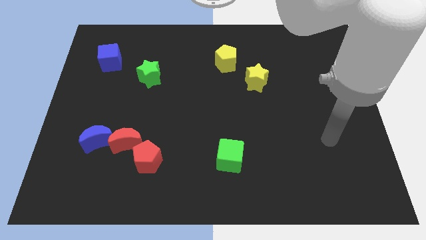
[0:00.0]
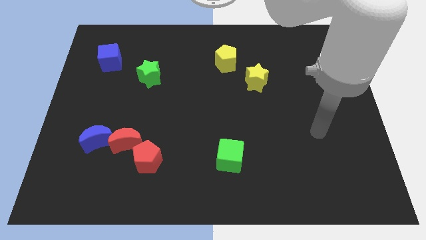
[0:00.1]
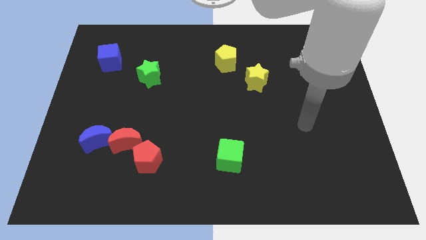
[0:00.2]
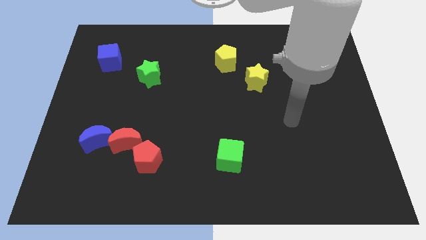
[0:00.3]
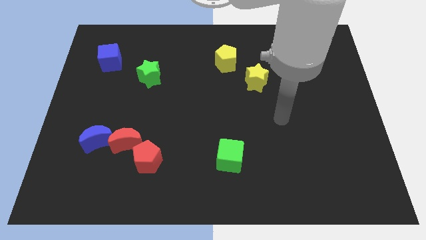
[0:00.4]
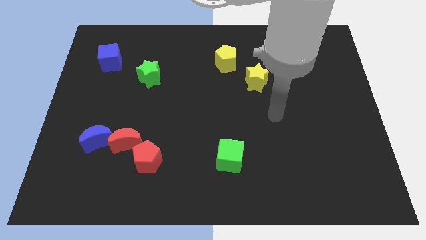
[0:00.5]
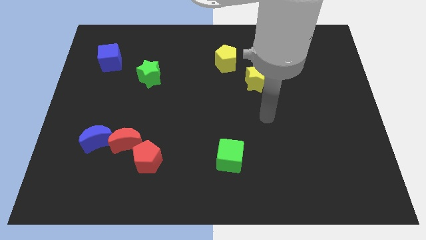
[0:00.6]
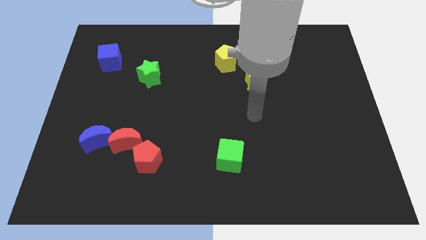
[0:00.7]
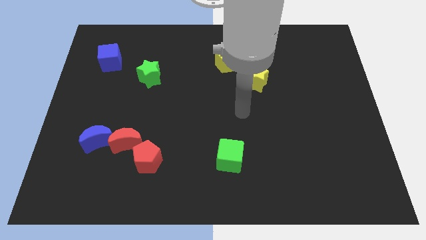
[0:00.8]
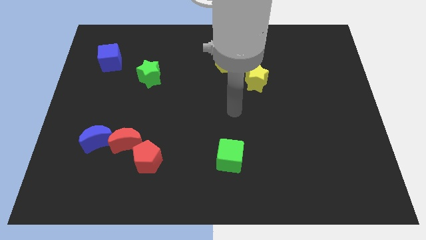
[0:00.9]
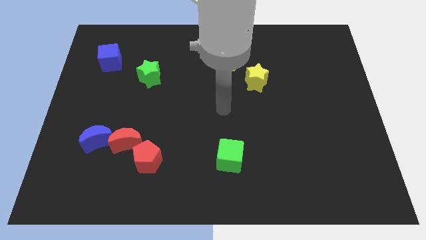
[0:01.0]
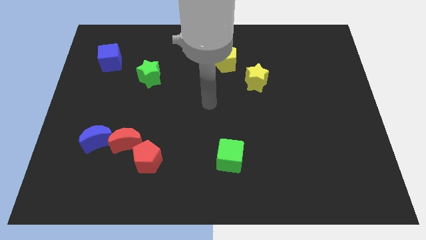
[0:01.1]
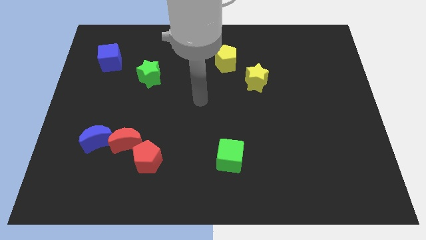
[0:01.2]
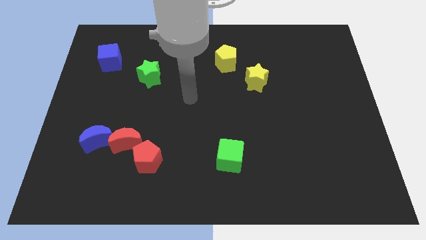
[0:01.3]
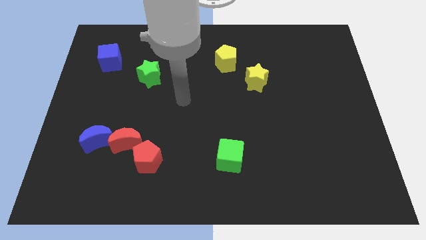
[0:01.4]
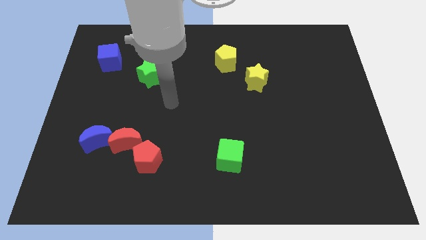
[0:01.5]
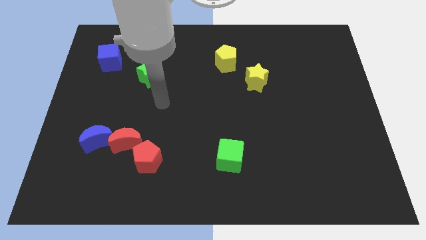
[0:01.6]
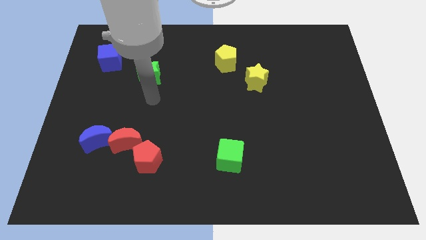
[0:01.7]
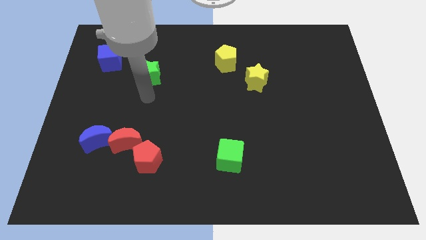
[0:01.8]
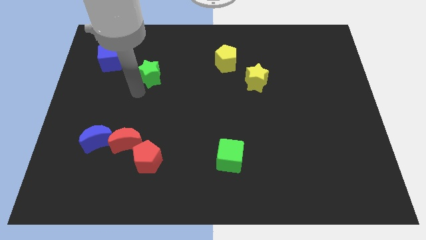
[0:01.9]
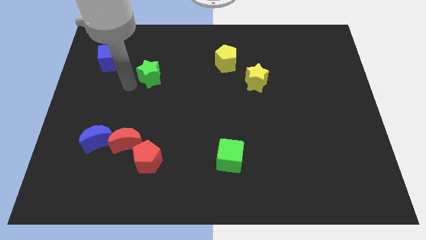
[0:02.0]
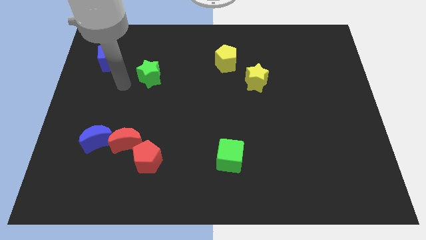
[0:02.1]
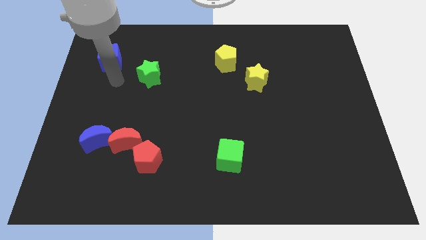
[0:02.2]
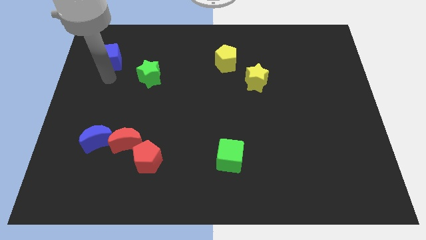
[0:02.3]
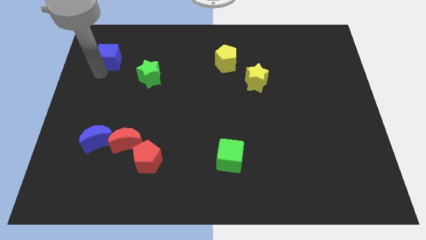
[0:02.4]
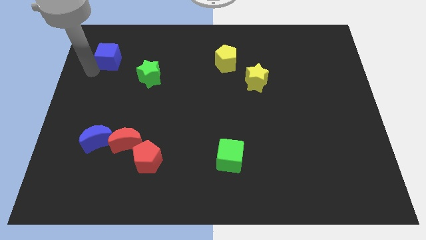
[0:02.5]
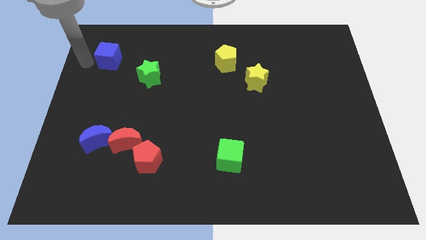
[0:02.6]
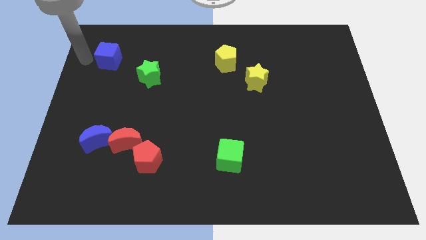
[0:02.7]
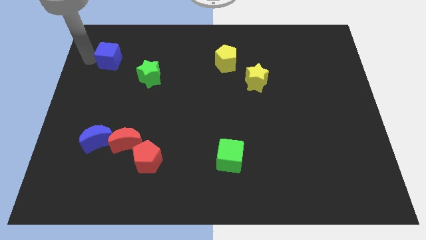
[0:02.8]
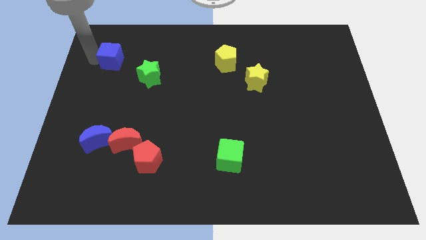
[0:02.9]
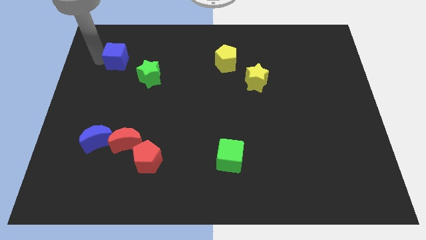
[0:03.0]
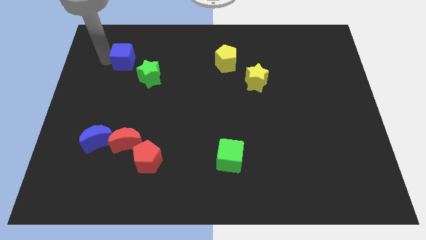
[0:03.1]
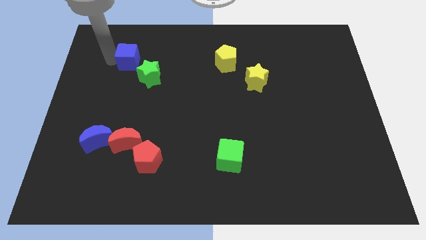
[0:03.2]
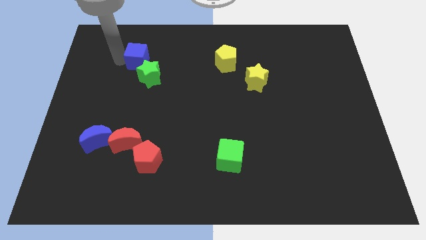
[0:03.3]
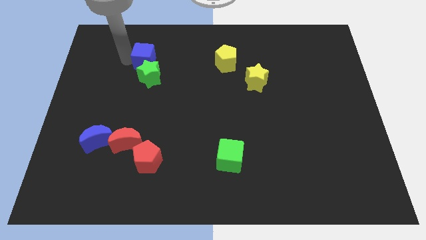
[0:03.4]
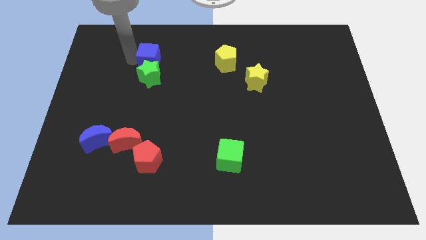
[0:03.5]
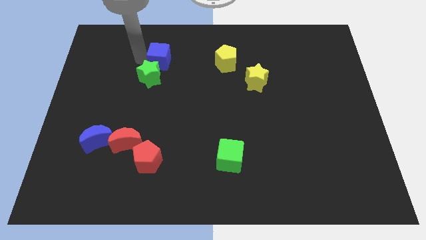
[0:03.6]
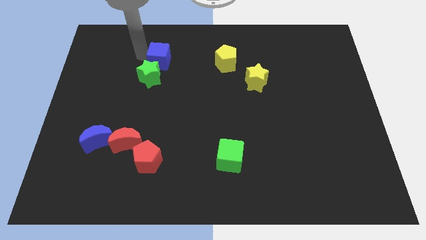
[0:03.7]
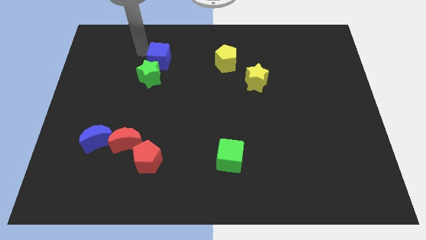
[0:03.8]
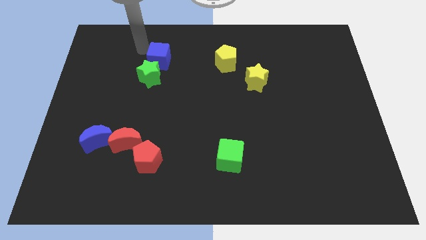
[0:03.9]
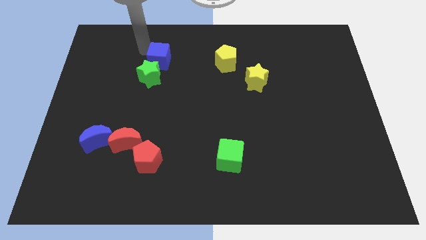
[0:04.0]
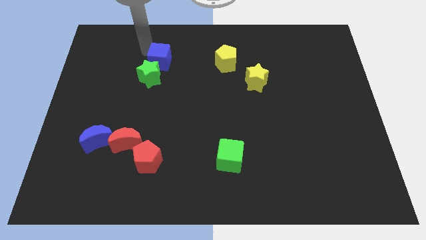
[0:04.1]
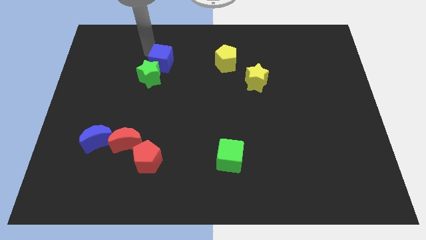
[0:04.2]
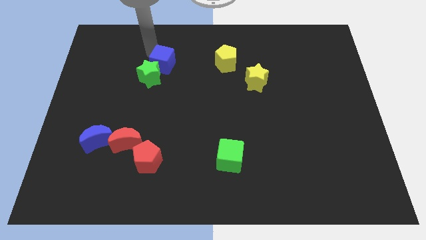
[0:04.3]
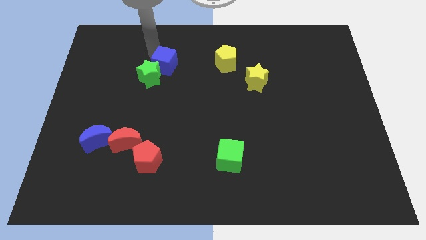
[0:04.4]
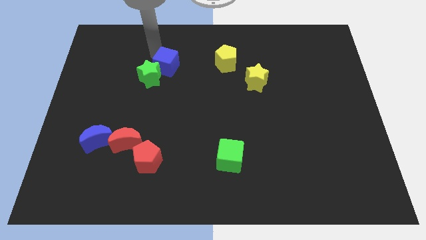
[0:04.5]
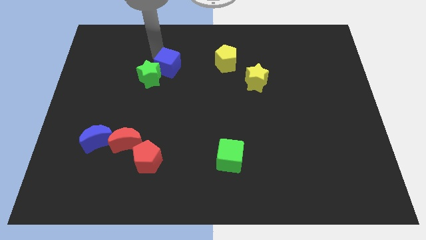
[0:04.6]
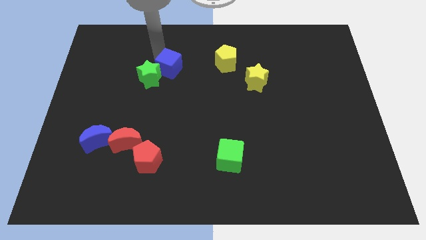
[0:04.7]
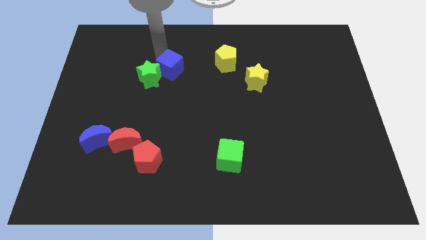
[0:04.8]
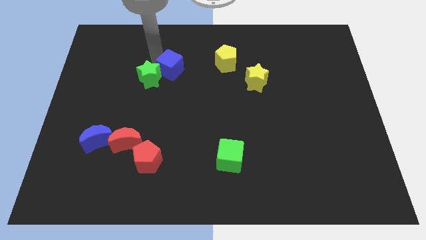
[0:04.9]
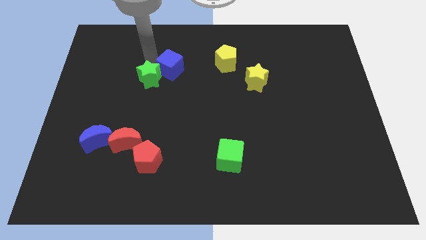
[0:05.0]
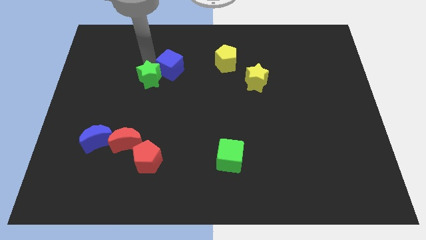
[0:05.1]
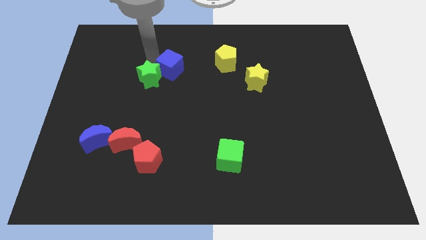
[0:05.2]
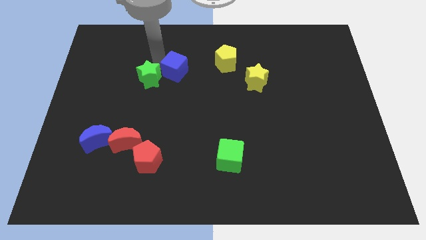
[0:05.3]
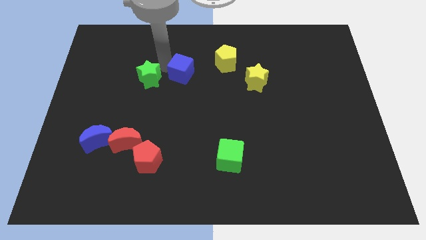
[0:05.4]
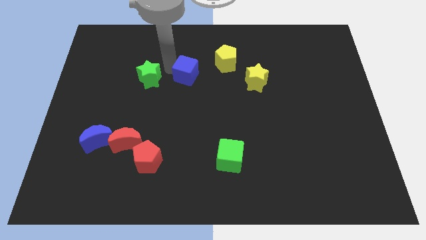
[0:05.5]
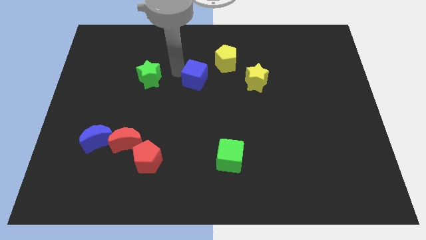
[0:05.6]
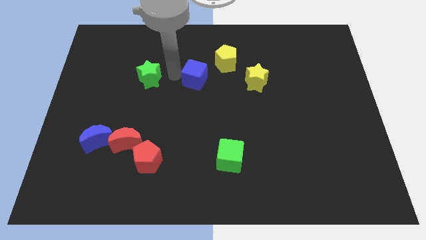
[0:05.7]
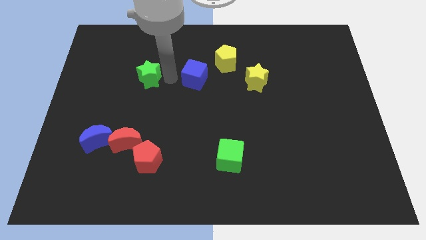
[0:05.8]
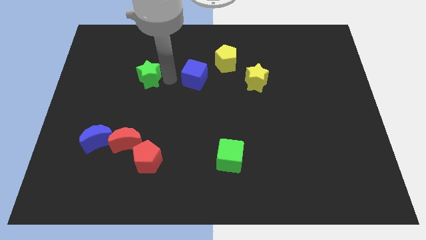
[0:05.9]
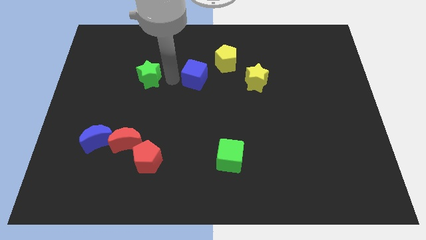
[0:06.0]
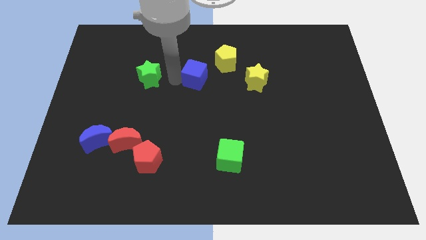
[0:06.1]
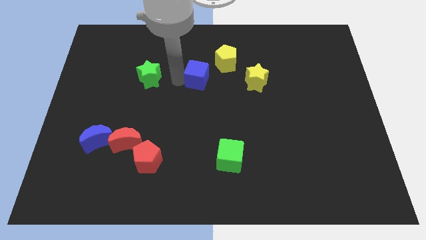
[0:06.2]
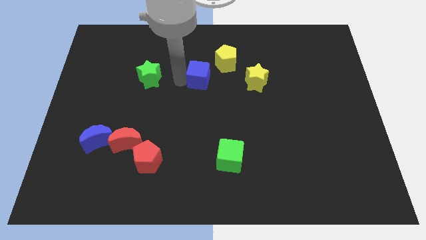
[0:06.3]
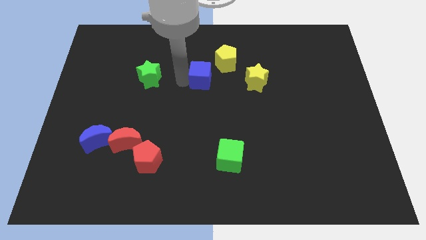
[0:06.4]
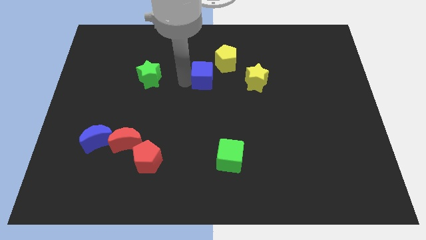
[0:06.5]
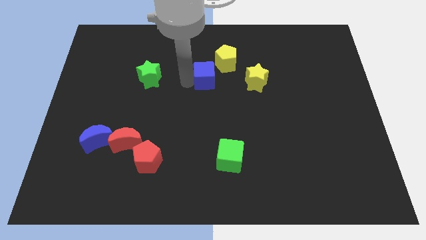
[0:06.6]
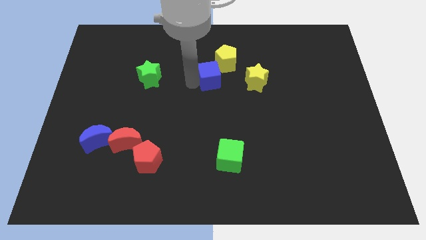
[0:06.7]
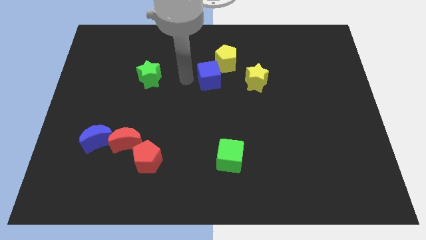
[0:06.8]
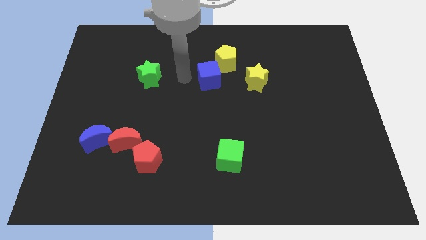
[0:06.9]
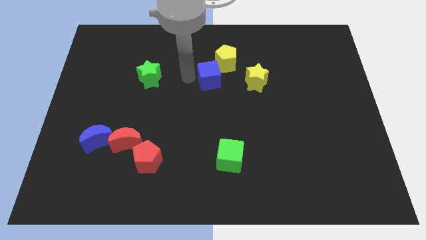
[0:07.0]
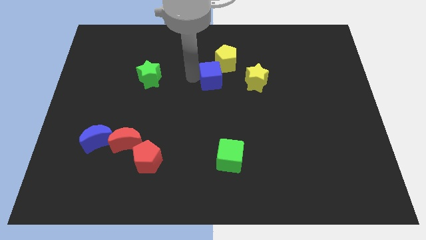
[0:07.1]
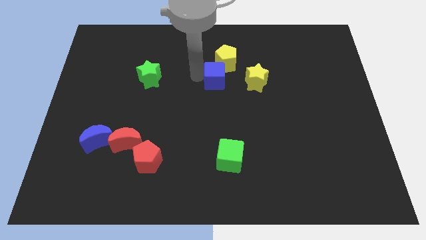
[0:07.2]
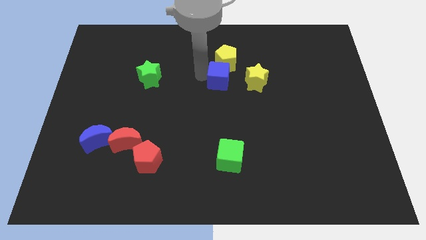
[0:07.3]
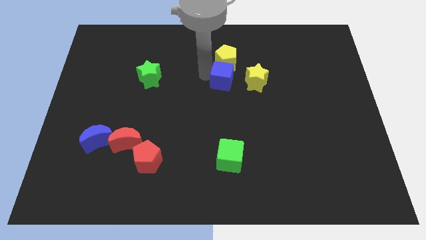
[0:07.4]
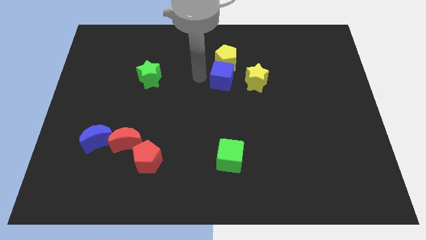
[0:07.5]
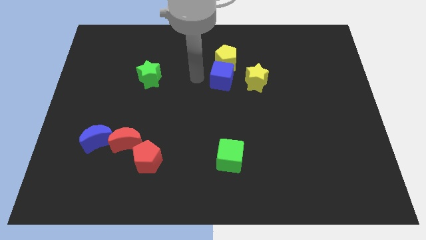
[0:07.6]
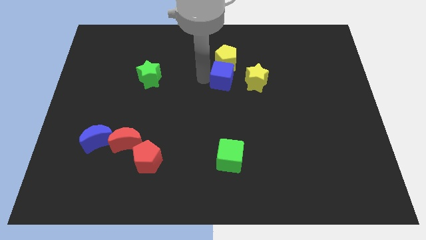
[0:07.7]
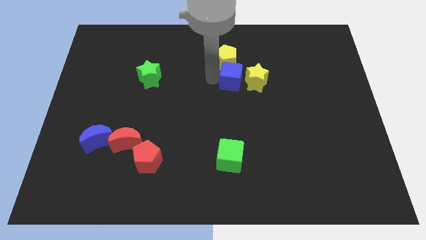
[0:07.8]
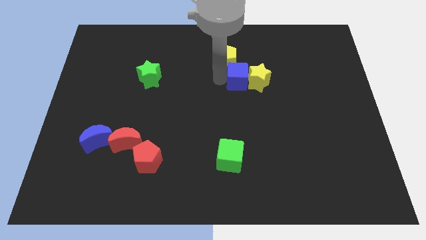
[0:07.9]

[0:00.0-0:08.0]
push the blue cube towards the yellow star
